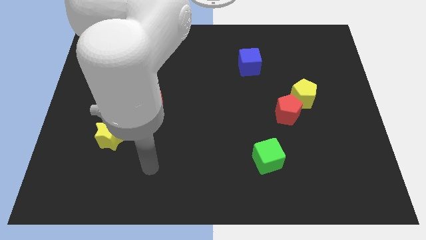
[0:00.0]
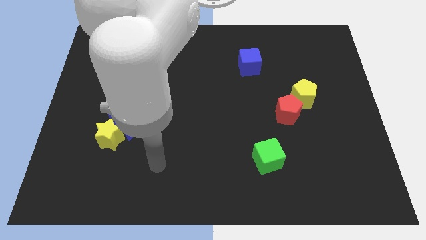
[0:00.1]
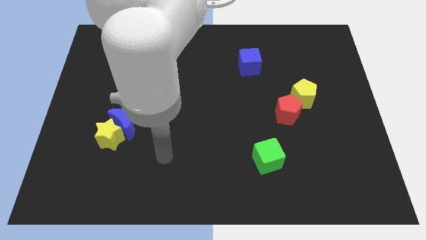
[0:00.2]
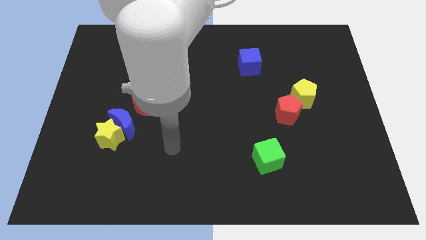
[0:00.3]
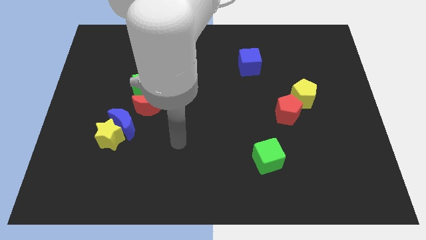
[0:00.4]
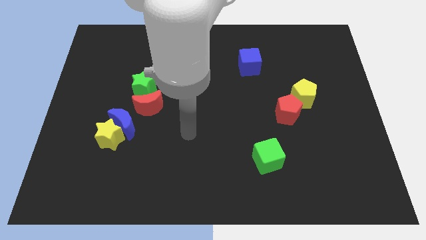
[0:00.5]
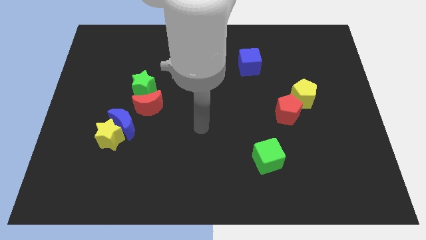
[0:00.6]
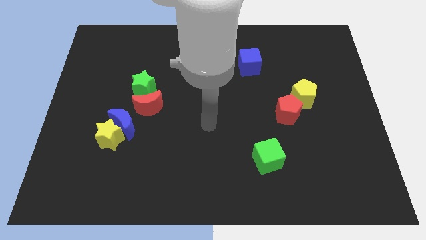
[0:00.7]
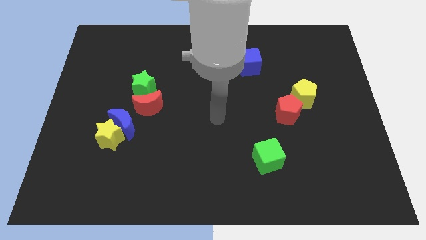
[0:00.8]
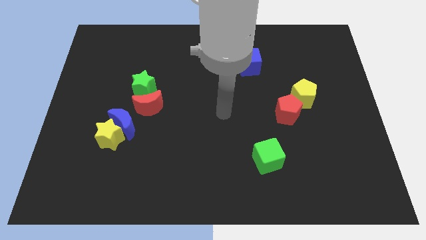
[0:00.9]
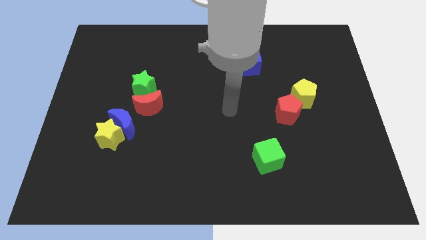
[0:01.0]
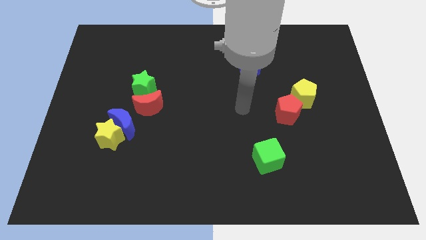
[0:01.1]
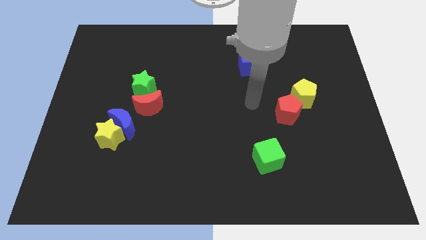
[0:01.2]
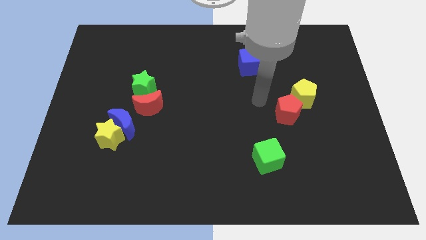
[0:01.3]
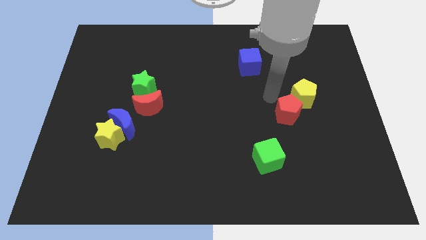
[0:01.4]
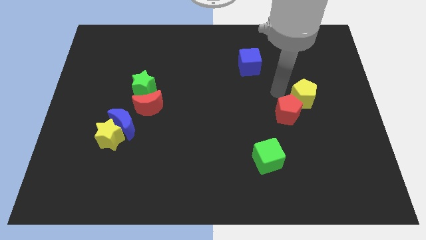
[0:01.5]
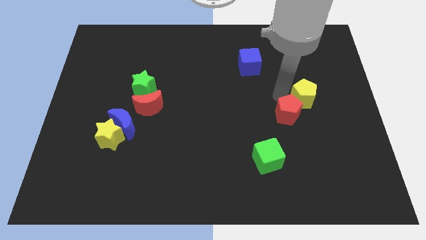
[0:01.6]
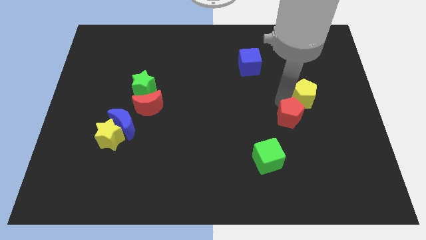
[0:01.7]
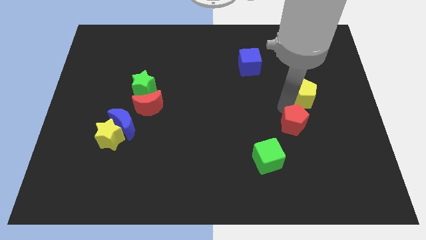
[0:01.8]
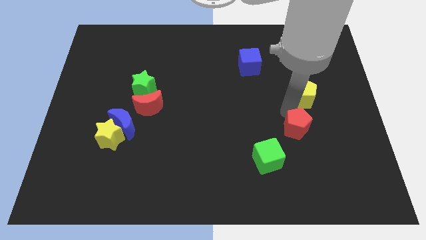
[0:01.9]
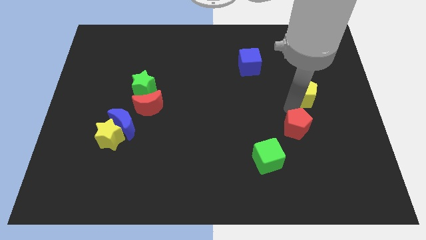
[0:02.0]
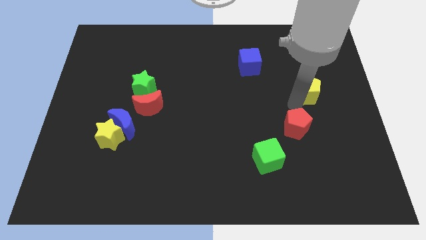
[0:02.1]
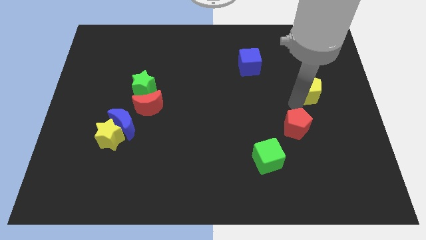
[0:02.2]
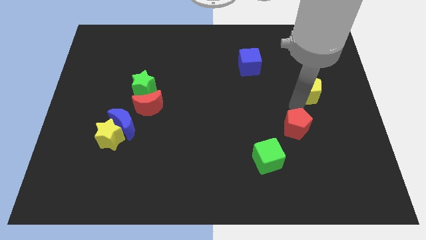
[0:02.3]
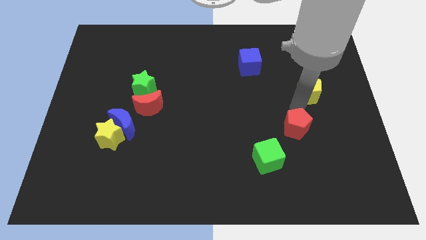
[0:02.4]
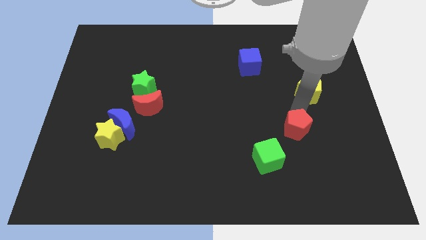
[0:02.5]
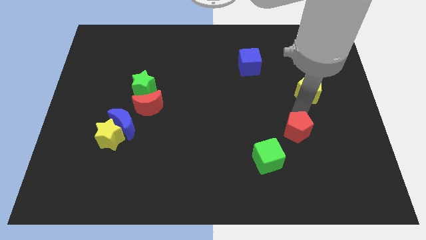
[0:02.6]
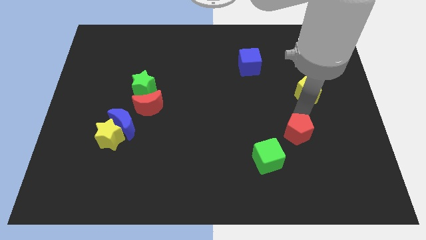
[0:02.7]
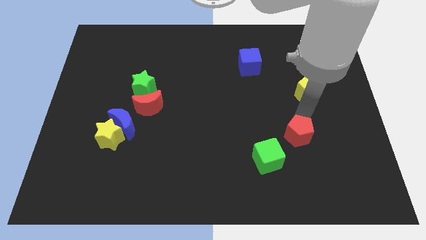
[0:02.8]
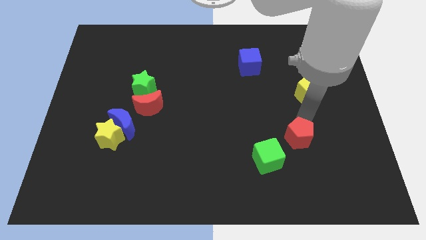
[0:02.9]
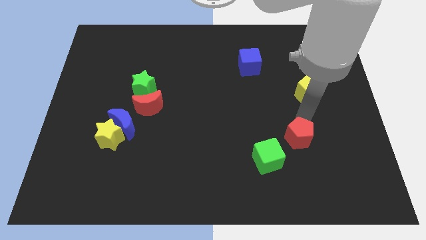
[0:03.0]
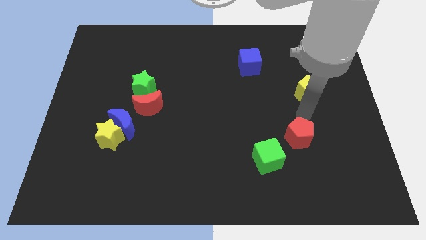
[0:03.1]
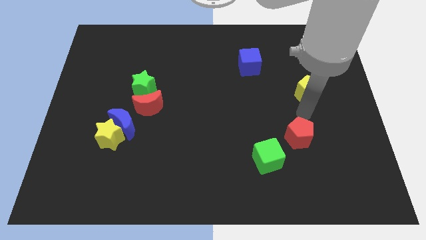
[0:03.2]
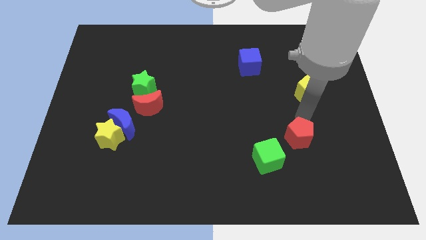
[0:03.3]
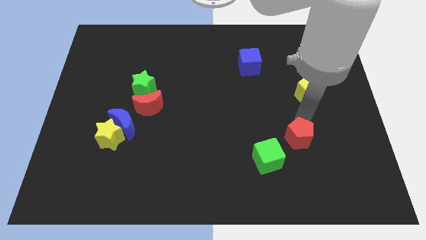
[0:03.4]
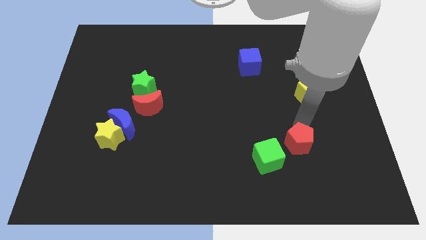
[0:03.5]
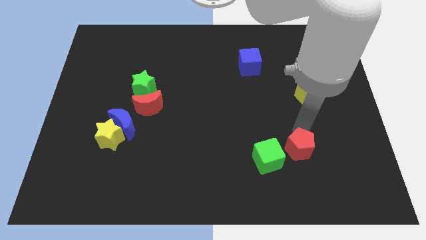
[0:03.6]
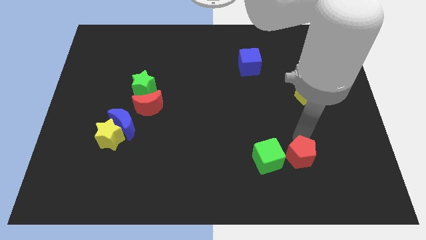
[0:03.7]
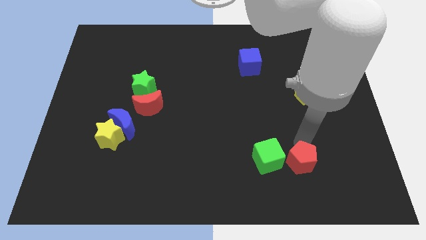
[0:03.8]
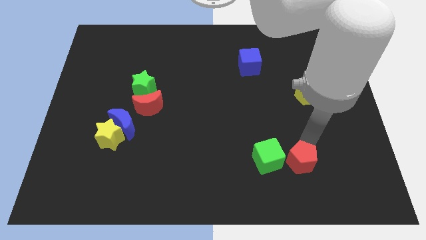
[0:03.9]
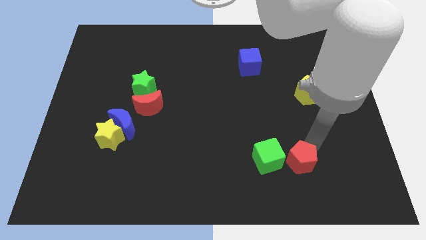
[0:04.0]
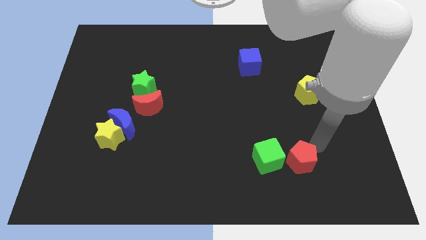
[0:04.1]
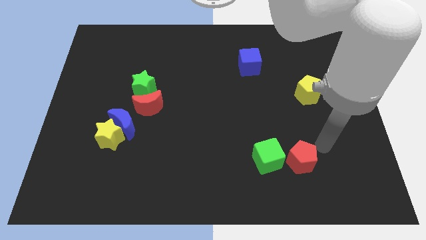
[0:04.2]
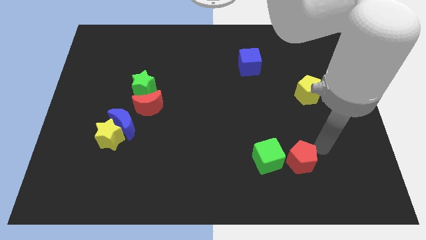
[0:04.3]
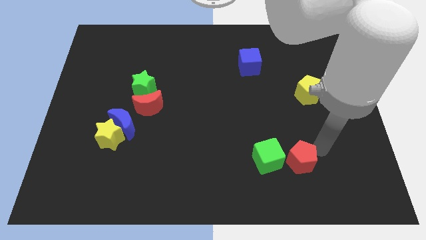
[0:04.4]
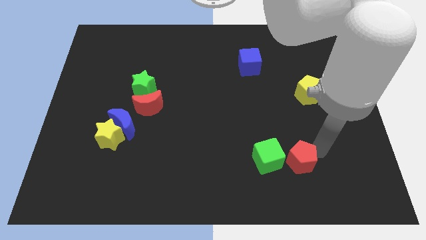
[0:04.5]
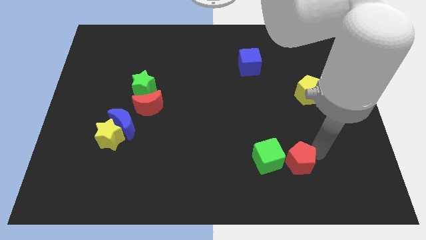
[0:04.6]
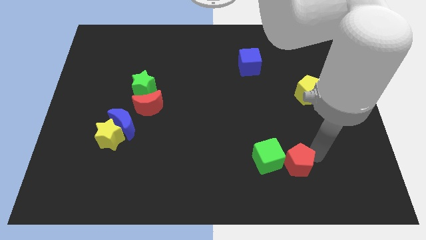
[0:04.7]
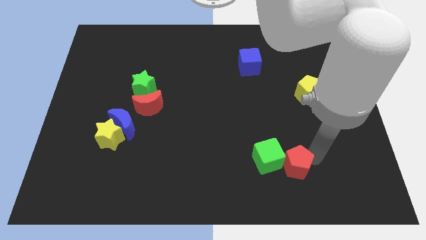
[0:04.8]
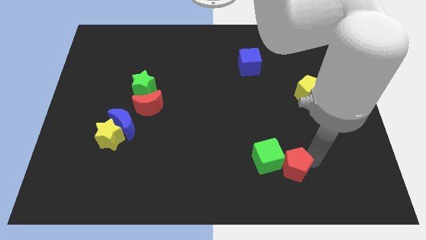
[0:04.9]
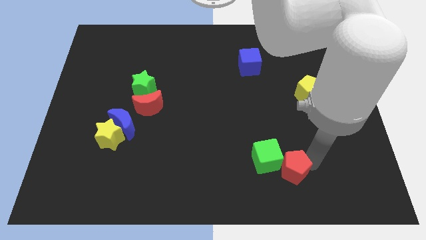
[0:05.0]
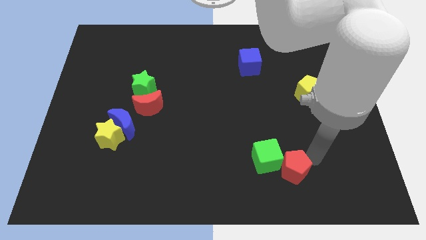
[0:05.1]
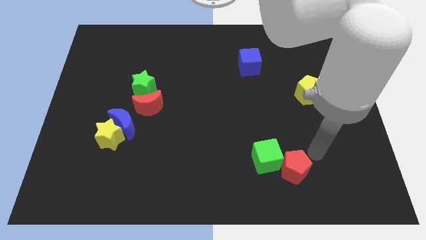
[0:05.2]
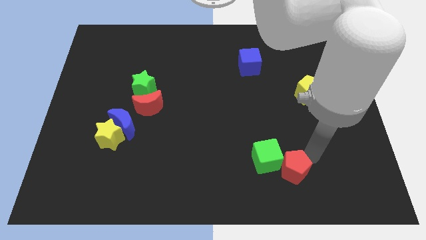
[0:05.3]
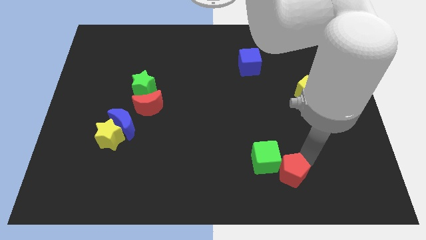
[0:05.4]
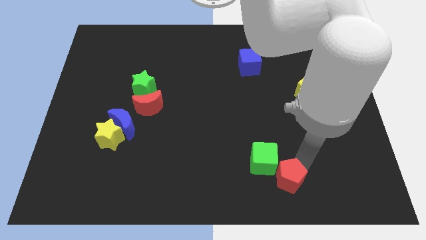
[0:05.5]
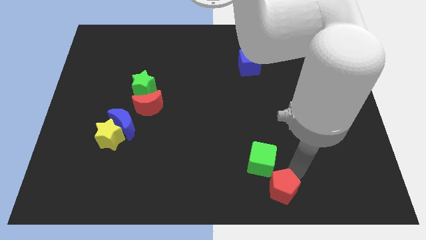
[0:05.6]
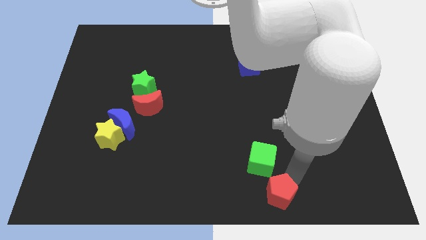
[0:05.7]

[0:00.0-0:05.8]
push the red pentagon to the bottom side

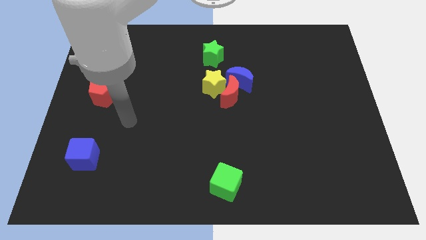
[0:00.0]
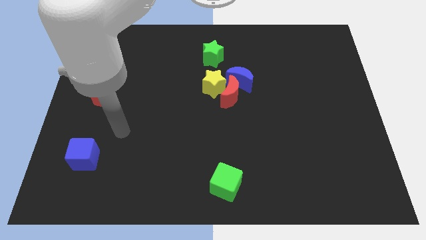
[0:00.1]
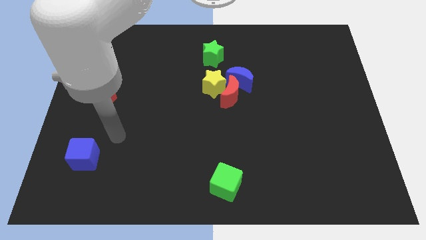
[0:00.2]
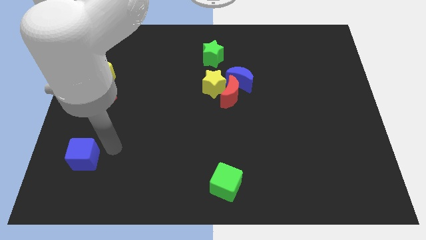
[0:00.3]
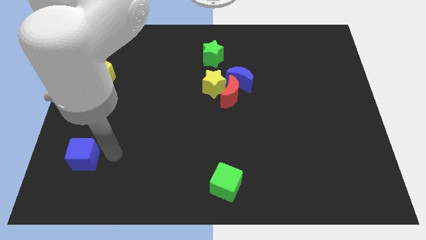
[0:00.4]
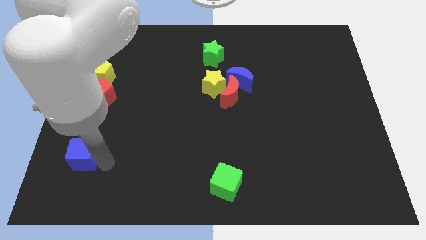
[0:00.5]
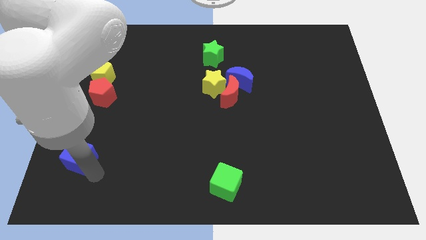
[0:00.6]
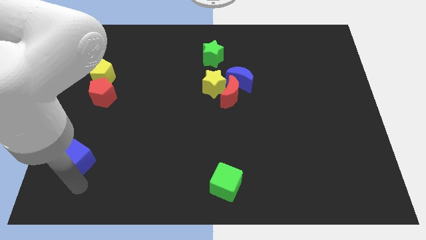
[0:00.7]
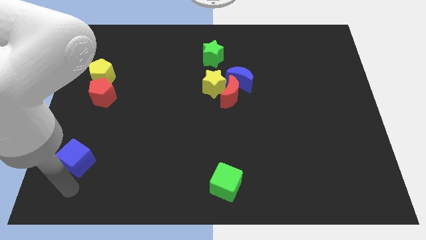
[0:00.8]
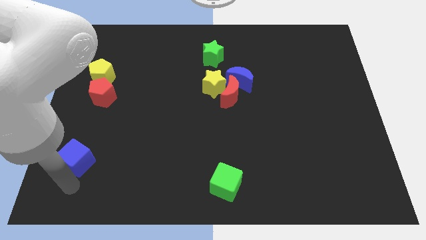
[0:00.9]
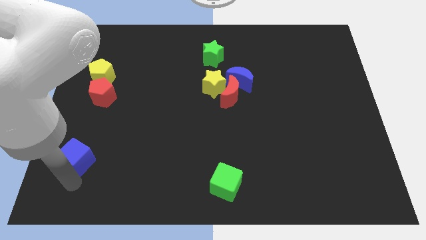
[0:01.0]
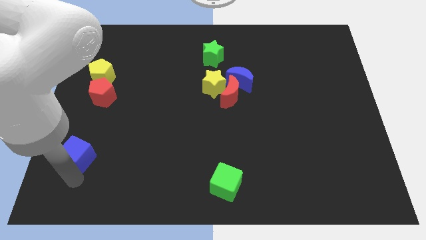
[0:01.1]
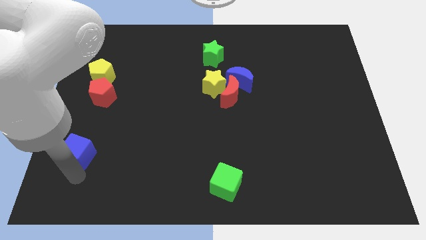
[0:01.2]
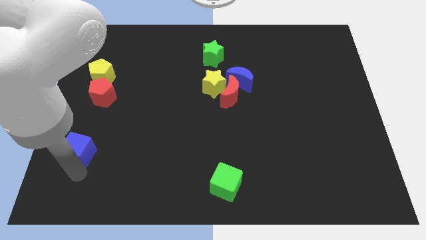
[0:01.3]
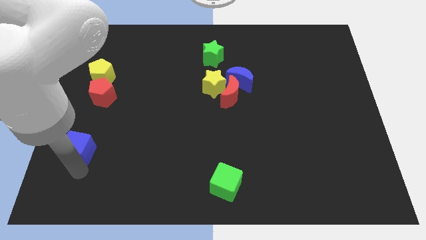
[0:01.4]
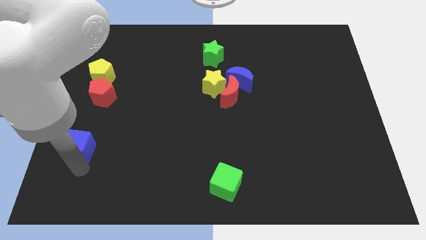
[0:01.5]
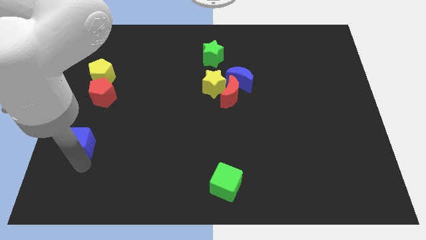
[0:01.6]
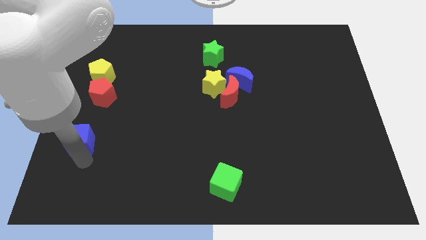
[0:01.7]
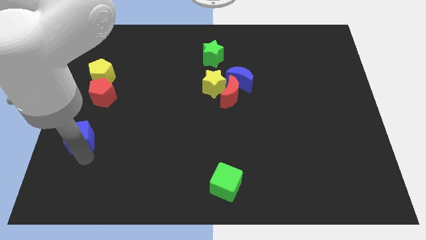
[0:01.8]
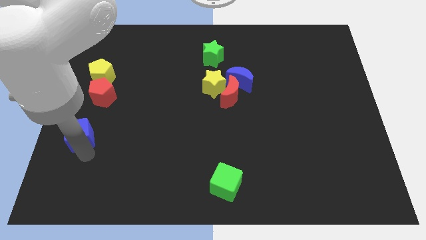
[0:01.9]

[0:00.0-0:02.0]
slide the blue cube to the center left
